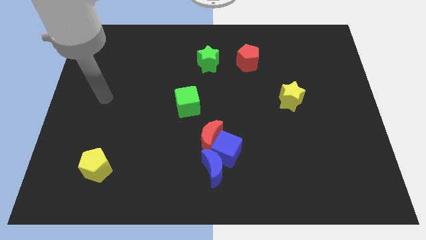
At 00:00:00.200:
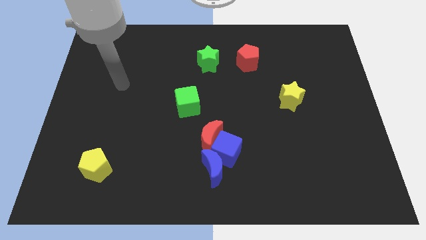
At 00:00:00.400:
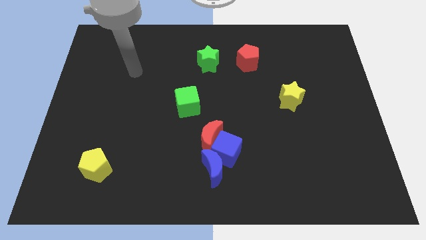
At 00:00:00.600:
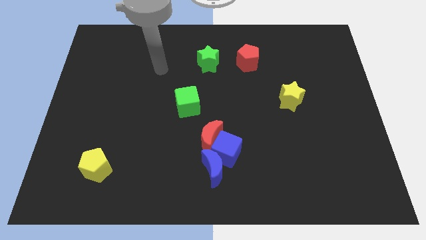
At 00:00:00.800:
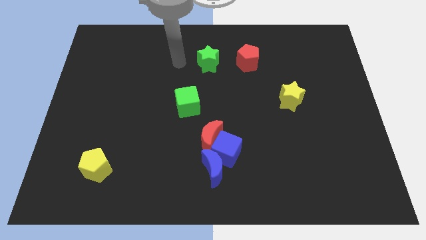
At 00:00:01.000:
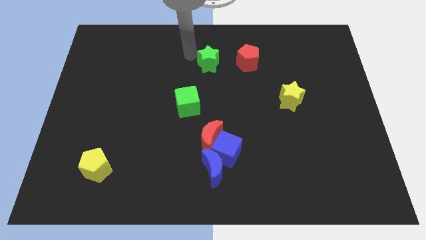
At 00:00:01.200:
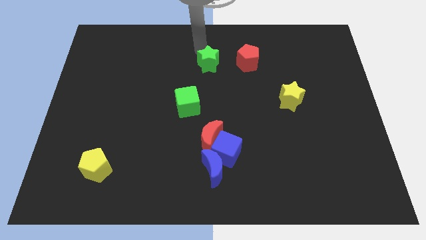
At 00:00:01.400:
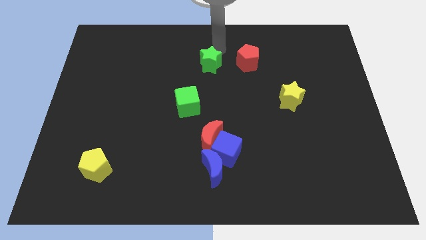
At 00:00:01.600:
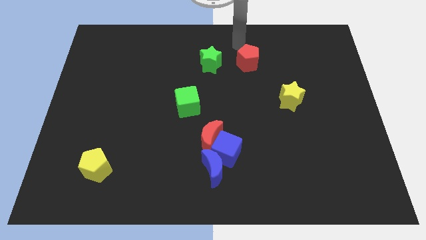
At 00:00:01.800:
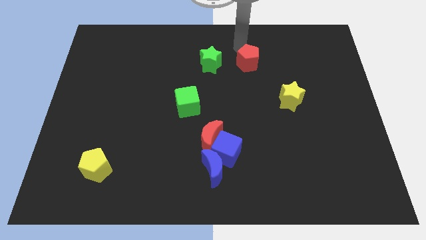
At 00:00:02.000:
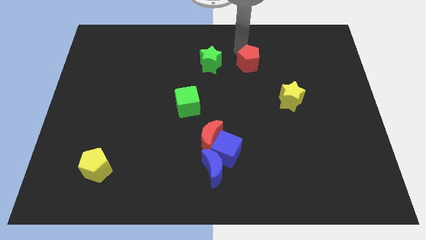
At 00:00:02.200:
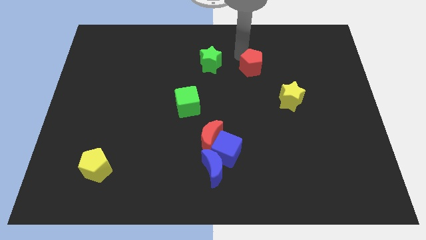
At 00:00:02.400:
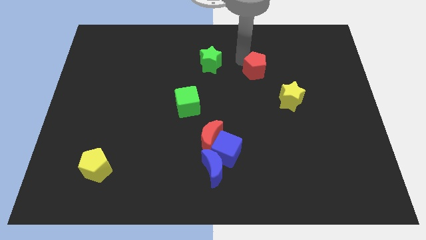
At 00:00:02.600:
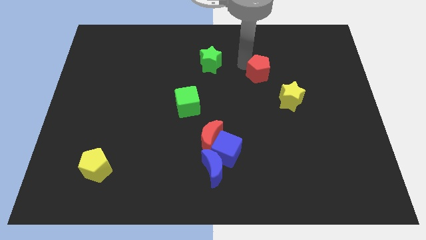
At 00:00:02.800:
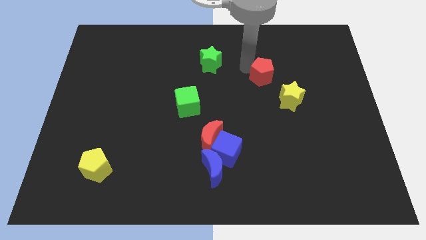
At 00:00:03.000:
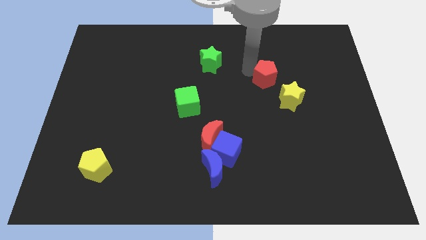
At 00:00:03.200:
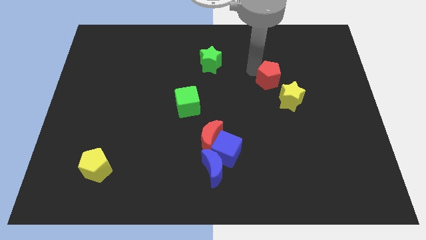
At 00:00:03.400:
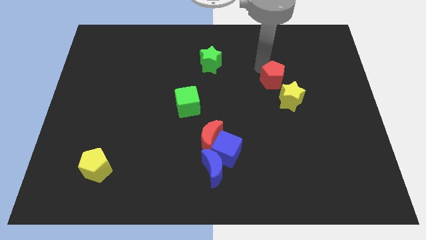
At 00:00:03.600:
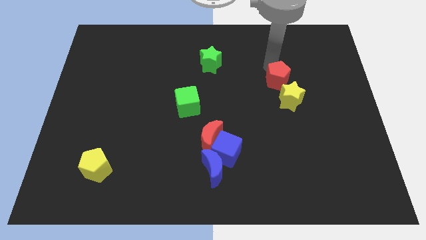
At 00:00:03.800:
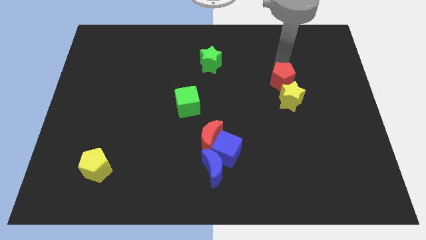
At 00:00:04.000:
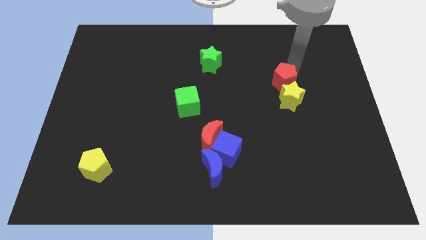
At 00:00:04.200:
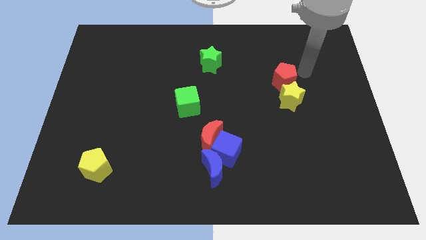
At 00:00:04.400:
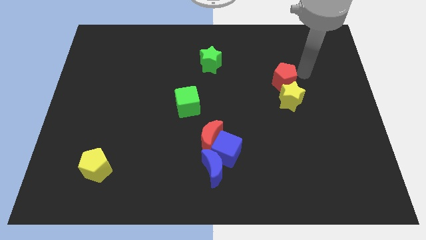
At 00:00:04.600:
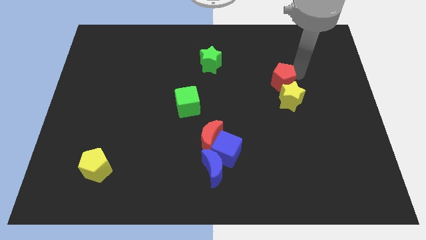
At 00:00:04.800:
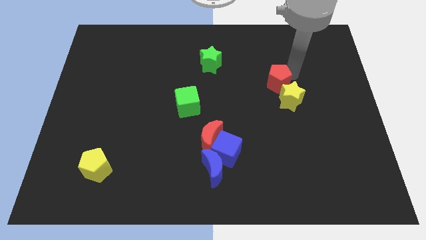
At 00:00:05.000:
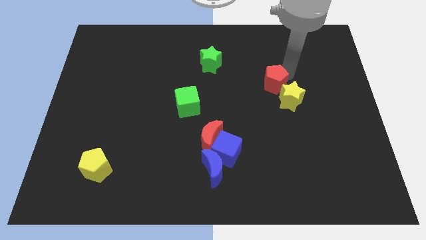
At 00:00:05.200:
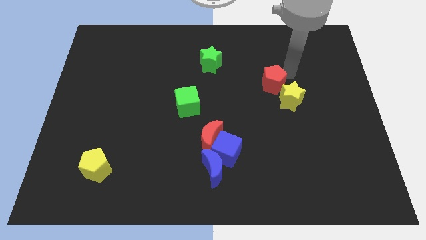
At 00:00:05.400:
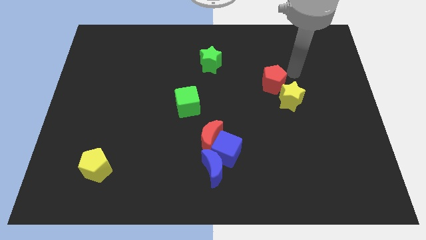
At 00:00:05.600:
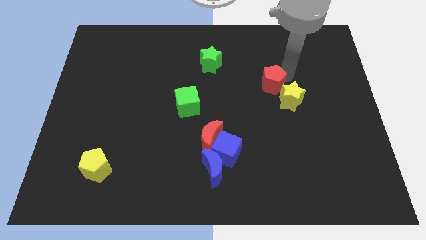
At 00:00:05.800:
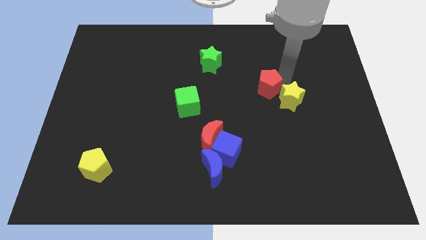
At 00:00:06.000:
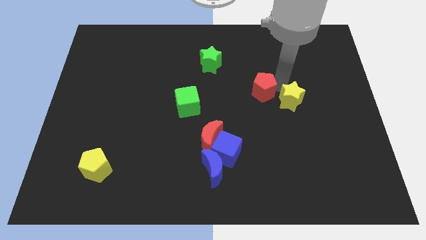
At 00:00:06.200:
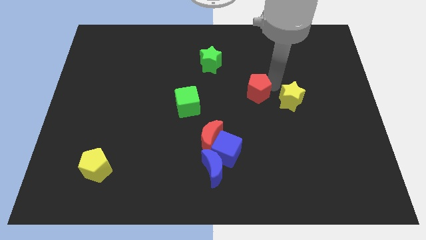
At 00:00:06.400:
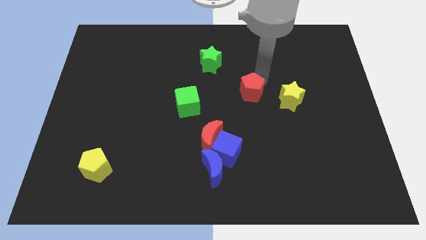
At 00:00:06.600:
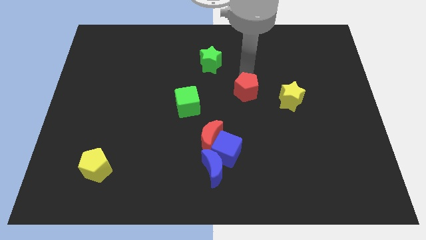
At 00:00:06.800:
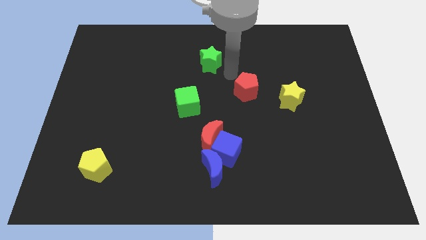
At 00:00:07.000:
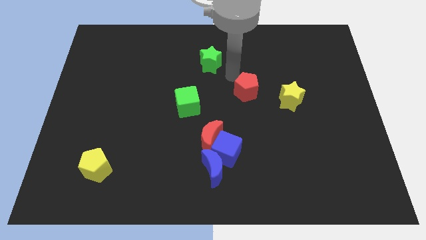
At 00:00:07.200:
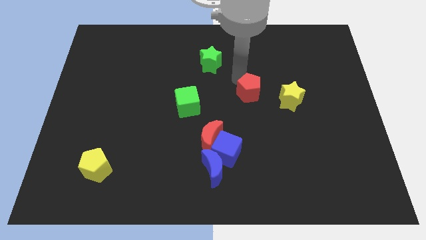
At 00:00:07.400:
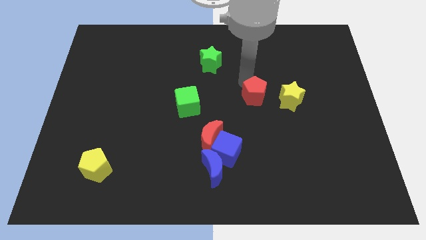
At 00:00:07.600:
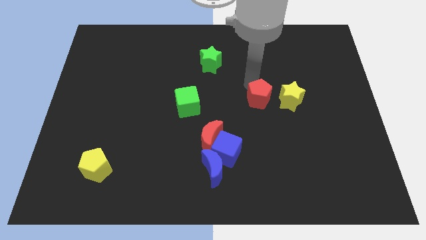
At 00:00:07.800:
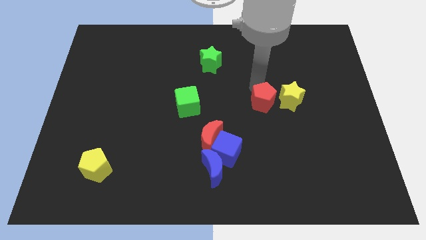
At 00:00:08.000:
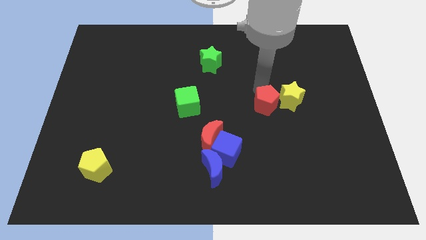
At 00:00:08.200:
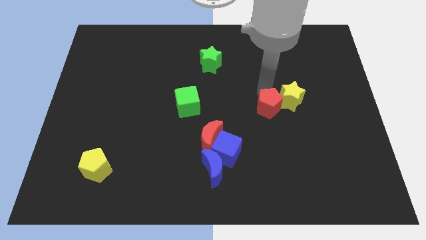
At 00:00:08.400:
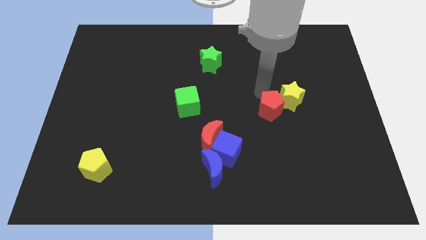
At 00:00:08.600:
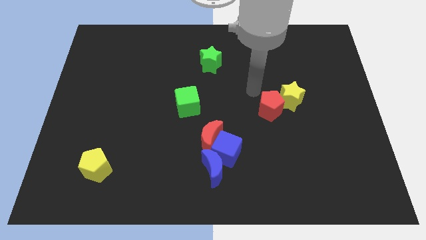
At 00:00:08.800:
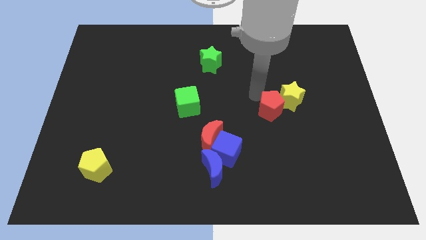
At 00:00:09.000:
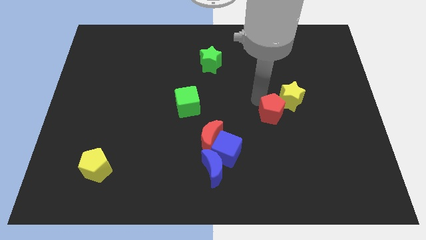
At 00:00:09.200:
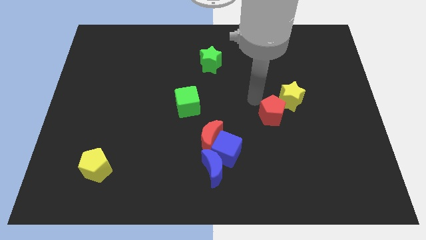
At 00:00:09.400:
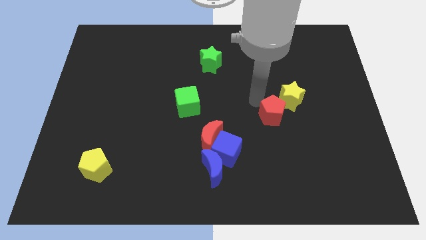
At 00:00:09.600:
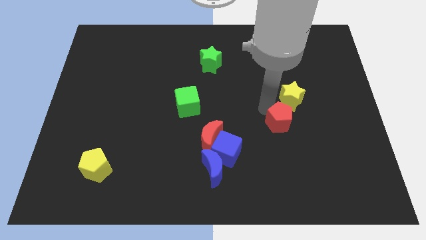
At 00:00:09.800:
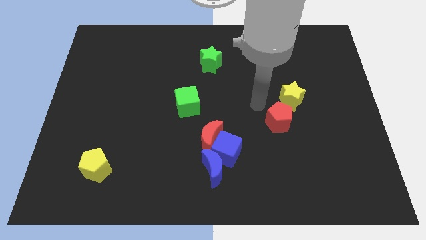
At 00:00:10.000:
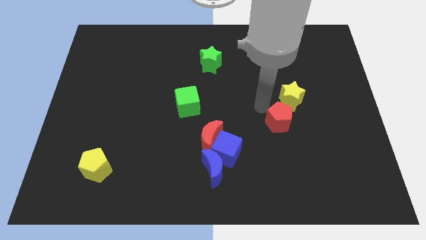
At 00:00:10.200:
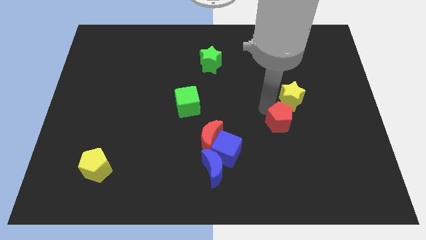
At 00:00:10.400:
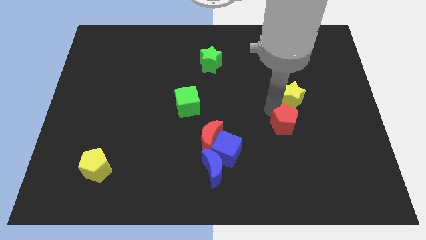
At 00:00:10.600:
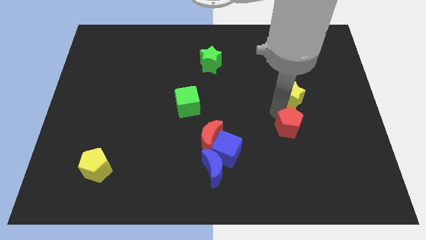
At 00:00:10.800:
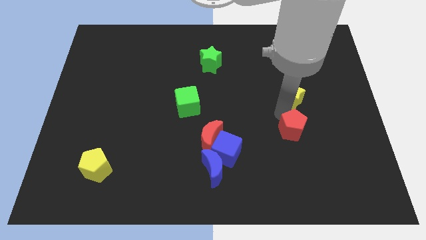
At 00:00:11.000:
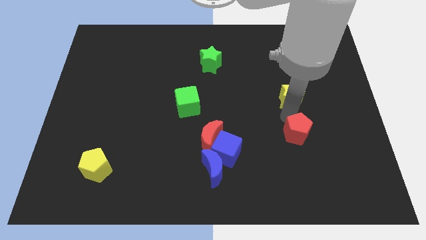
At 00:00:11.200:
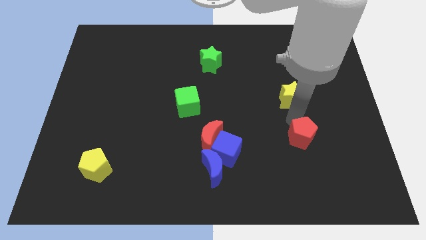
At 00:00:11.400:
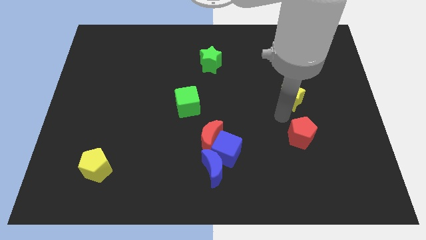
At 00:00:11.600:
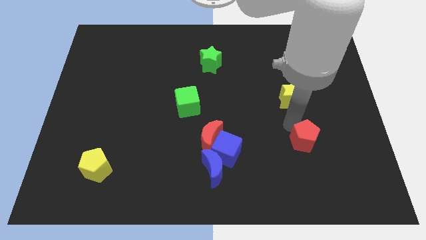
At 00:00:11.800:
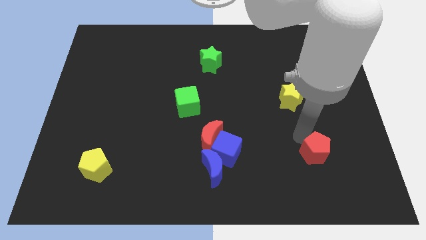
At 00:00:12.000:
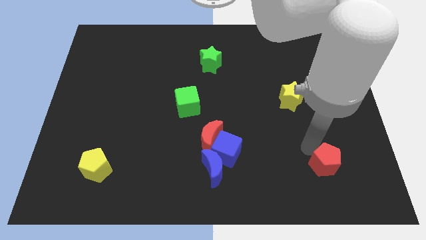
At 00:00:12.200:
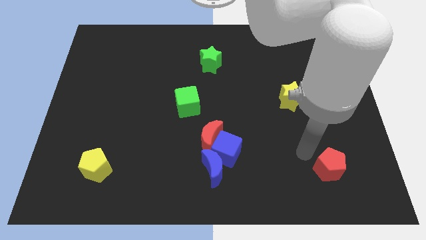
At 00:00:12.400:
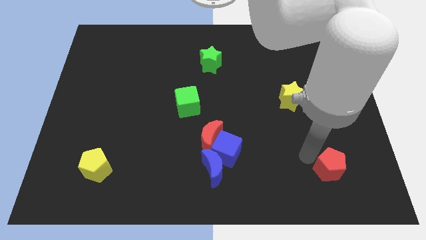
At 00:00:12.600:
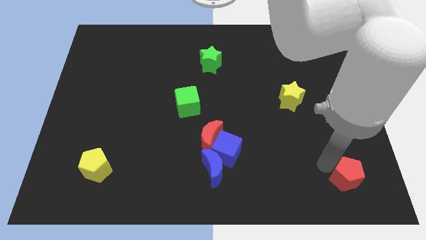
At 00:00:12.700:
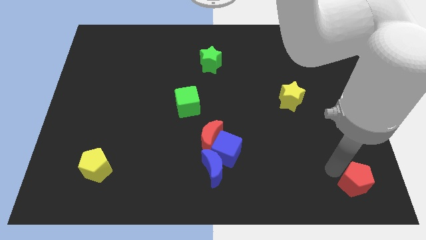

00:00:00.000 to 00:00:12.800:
push the red pentagon to the bottom right corner

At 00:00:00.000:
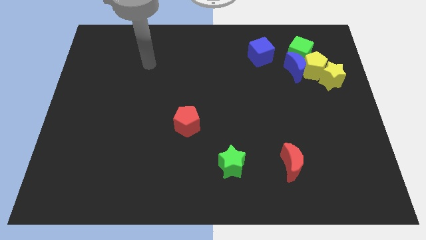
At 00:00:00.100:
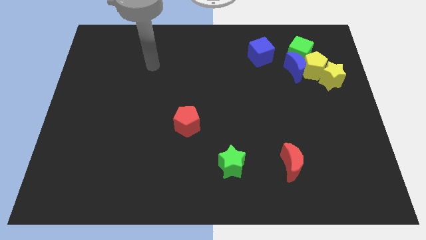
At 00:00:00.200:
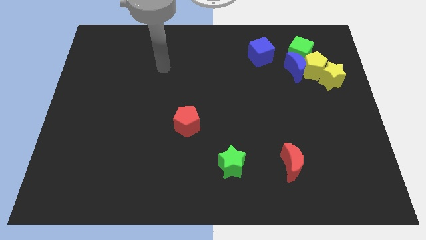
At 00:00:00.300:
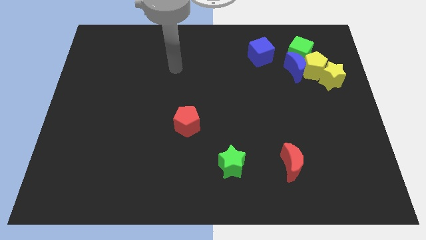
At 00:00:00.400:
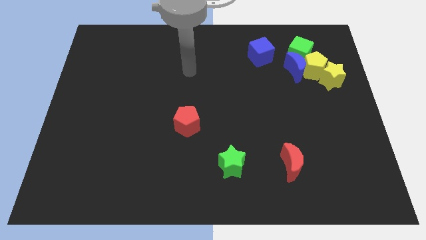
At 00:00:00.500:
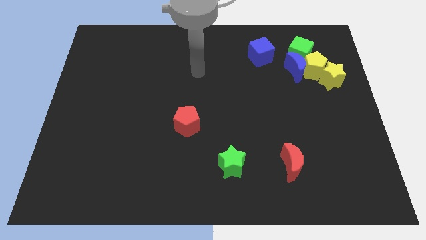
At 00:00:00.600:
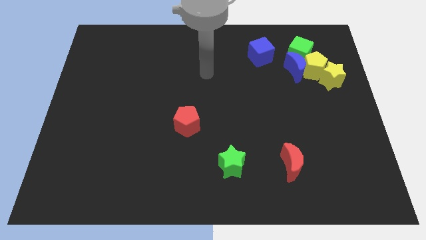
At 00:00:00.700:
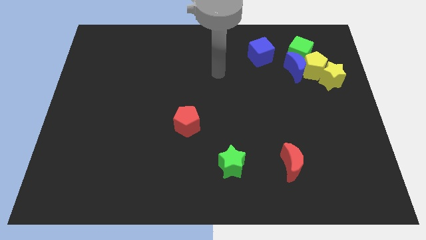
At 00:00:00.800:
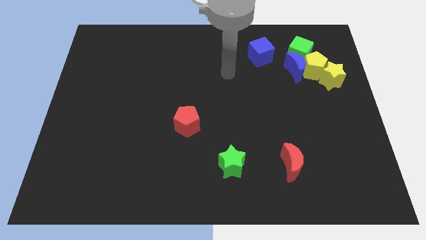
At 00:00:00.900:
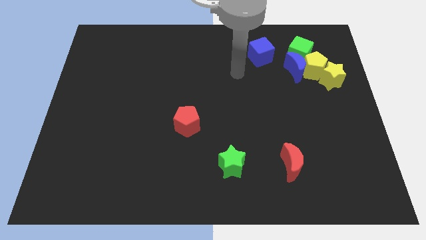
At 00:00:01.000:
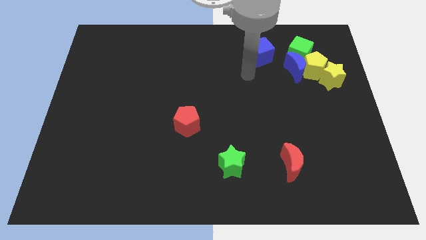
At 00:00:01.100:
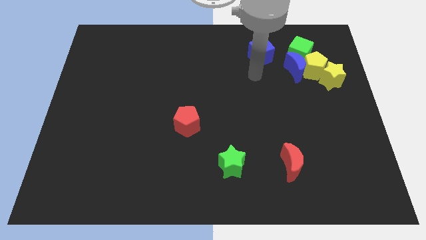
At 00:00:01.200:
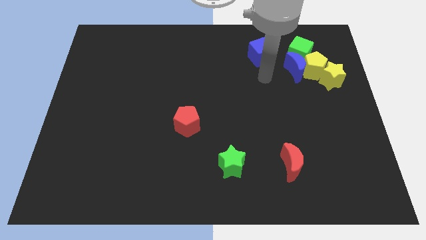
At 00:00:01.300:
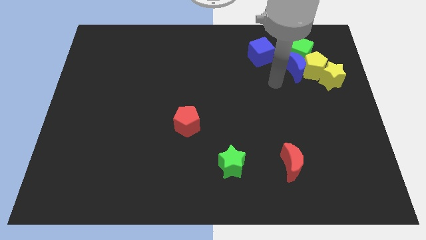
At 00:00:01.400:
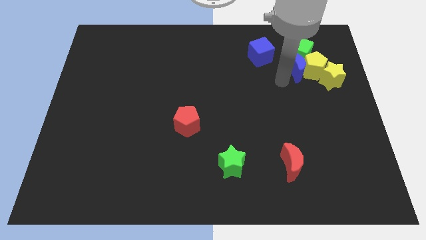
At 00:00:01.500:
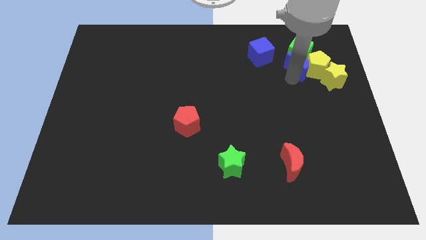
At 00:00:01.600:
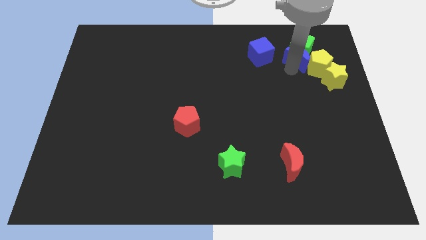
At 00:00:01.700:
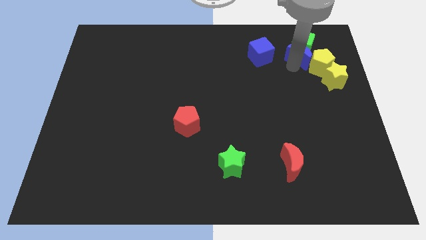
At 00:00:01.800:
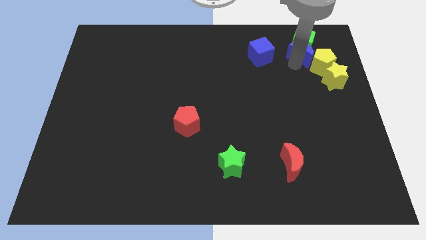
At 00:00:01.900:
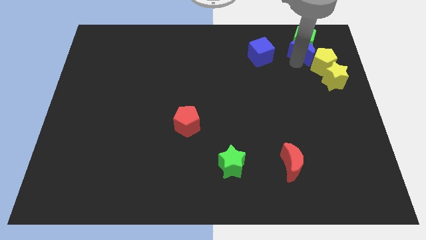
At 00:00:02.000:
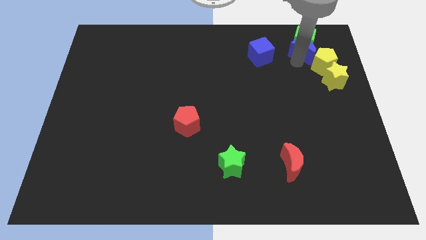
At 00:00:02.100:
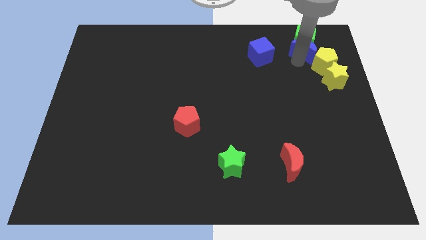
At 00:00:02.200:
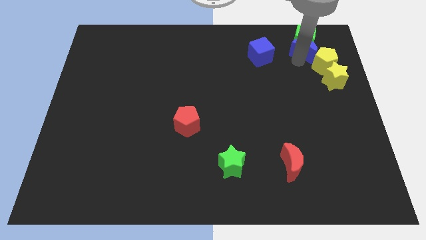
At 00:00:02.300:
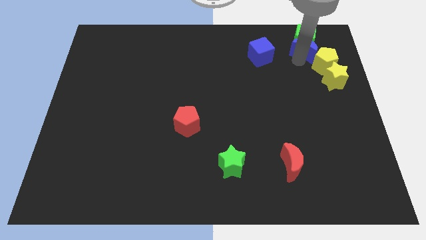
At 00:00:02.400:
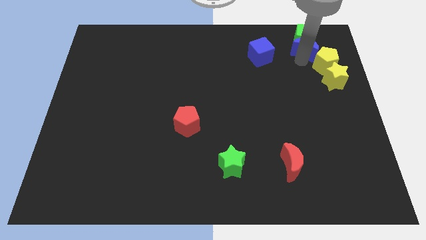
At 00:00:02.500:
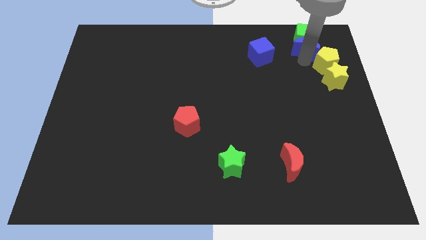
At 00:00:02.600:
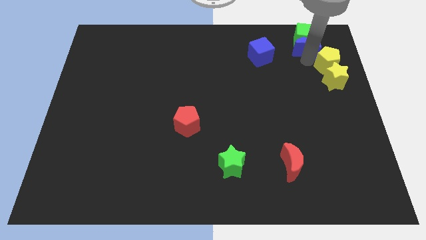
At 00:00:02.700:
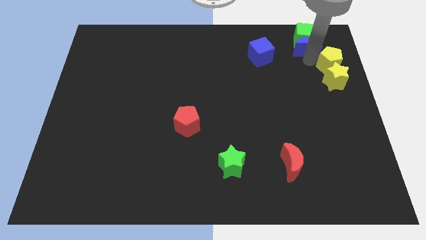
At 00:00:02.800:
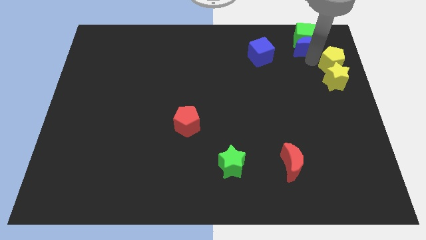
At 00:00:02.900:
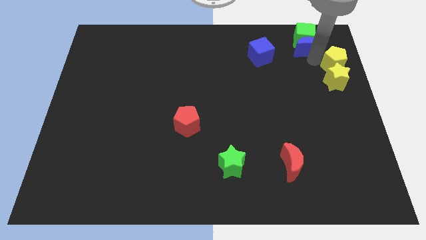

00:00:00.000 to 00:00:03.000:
move the yellow pentagon to the right side
